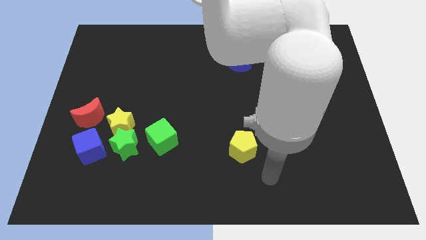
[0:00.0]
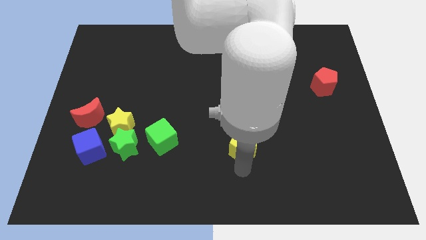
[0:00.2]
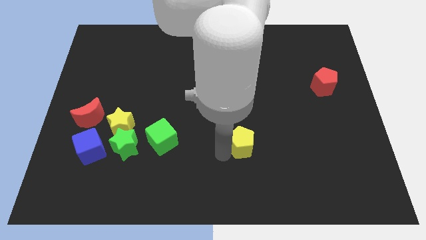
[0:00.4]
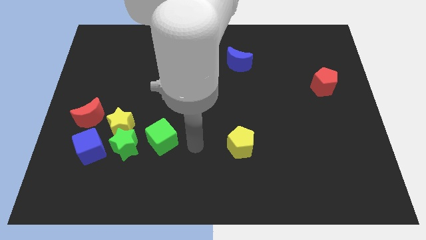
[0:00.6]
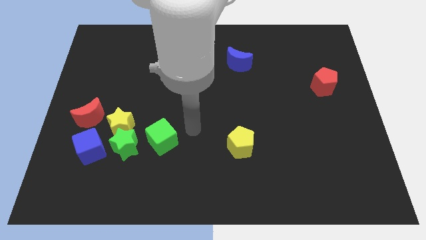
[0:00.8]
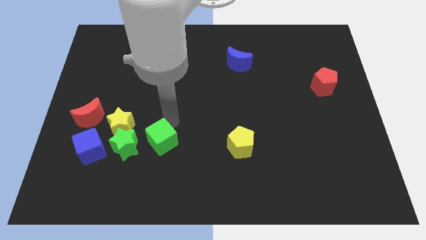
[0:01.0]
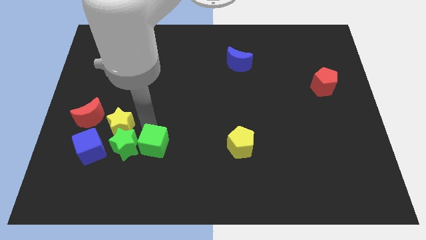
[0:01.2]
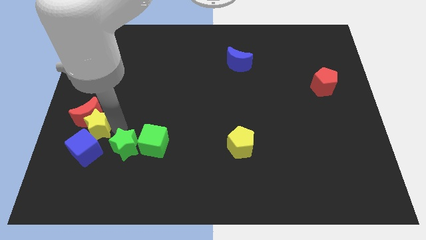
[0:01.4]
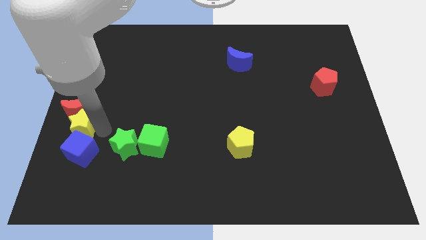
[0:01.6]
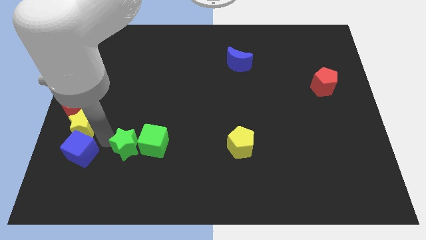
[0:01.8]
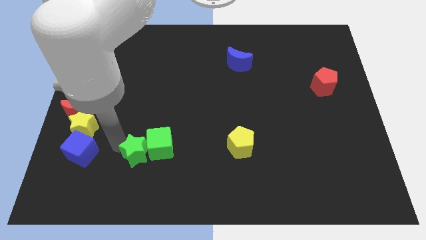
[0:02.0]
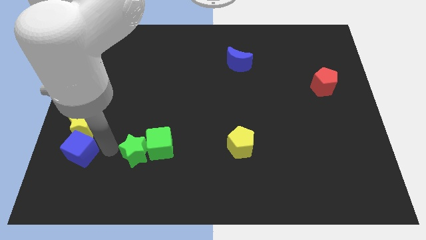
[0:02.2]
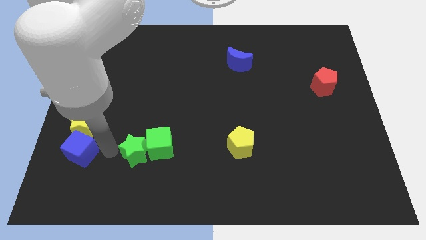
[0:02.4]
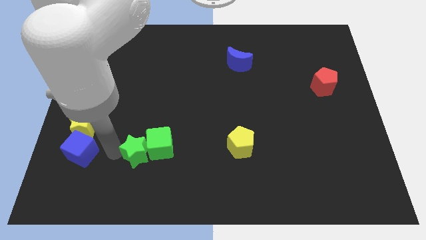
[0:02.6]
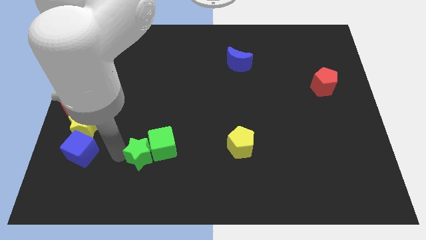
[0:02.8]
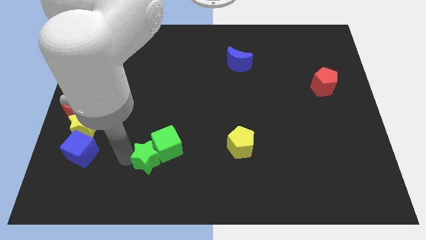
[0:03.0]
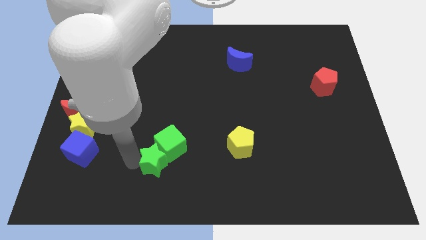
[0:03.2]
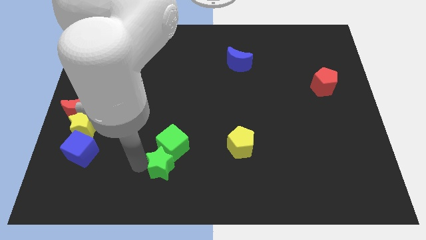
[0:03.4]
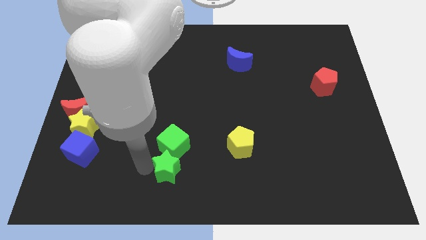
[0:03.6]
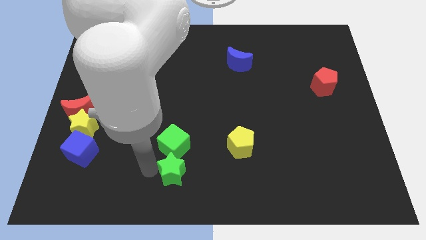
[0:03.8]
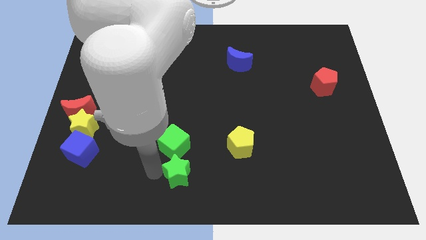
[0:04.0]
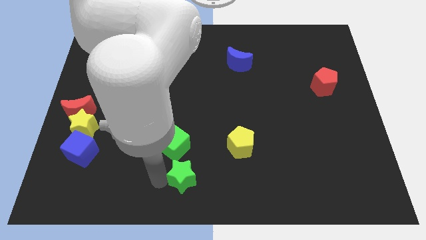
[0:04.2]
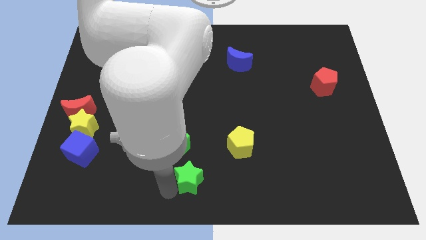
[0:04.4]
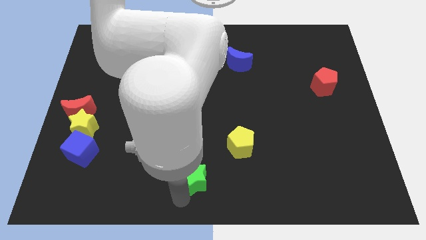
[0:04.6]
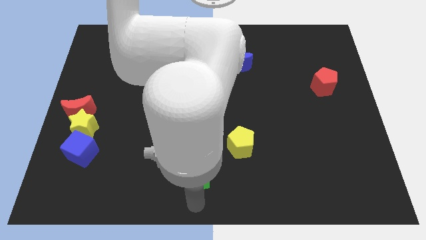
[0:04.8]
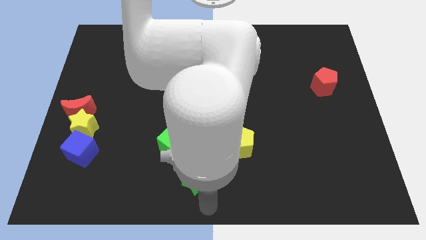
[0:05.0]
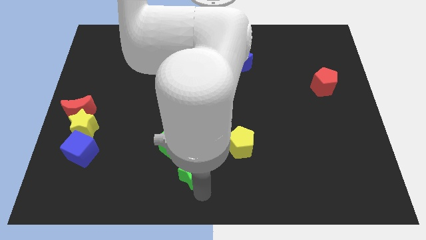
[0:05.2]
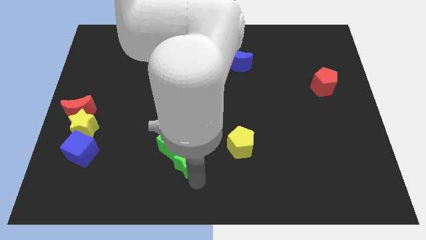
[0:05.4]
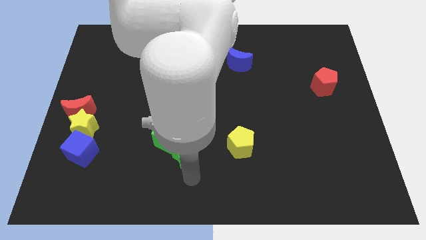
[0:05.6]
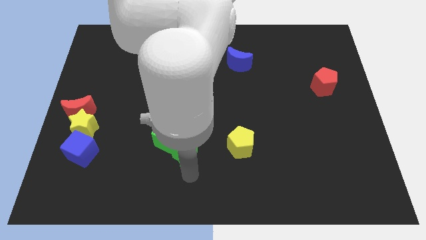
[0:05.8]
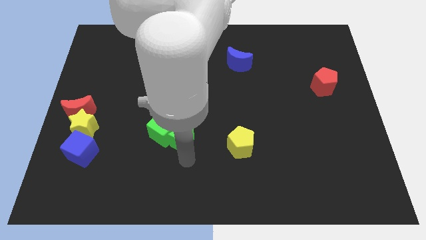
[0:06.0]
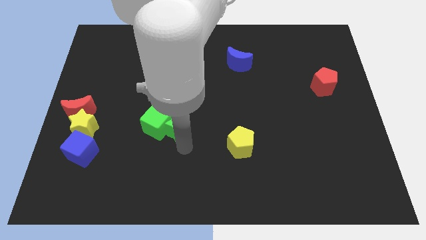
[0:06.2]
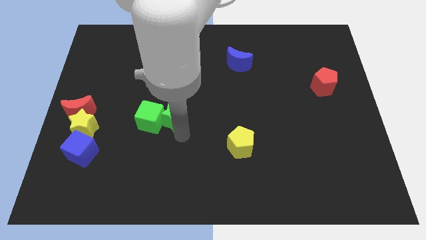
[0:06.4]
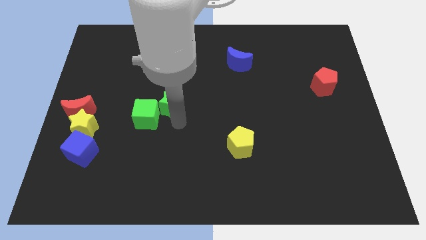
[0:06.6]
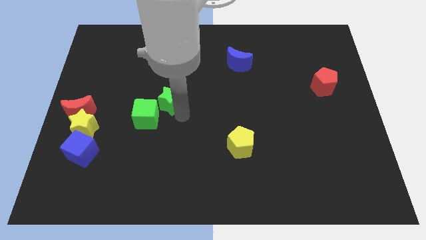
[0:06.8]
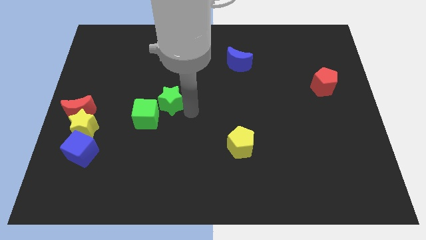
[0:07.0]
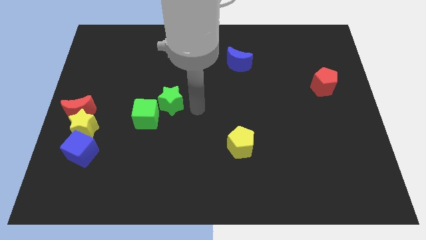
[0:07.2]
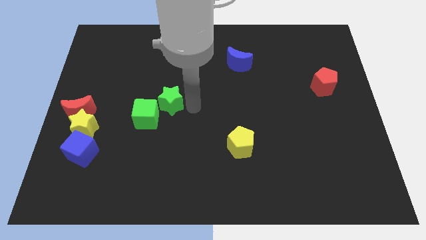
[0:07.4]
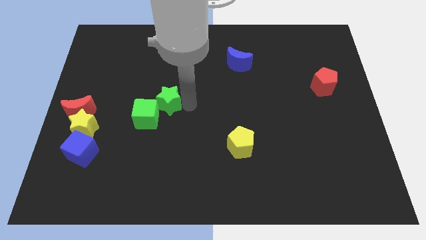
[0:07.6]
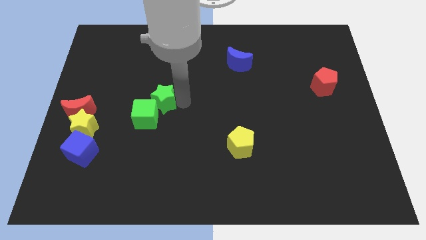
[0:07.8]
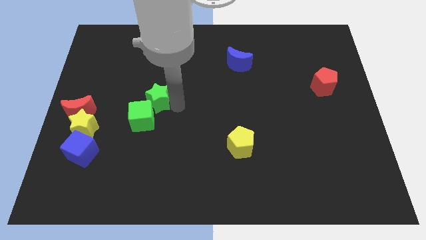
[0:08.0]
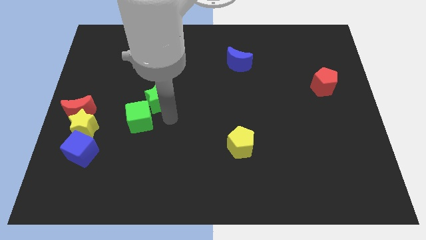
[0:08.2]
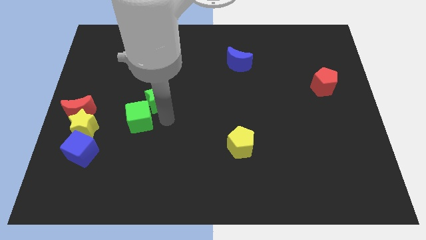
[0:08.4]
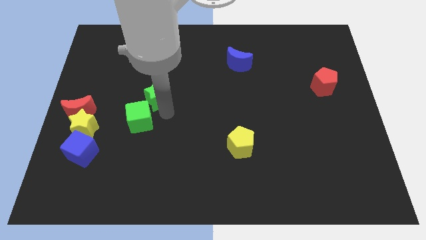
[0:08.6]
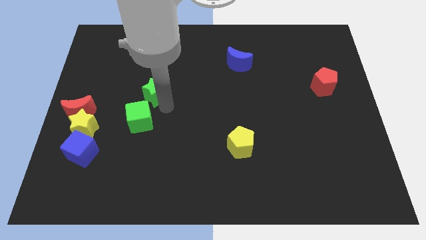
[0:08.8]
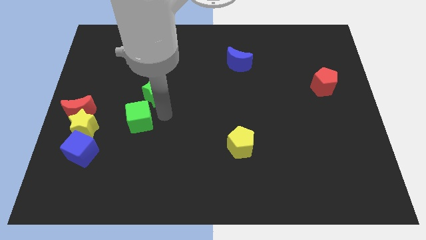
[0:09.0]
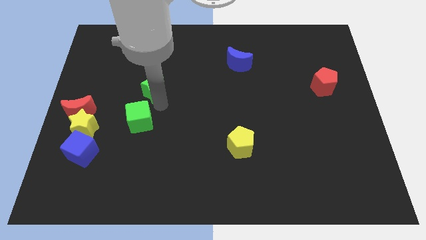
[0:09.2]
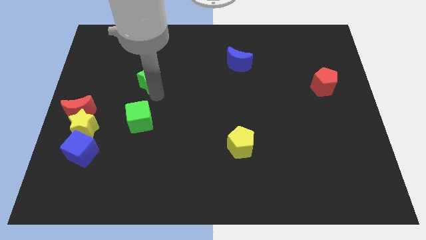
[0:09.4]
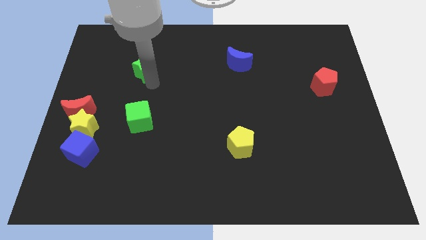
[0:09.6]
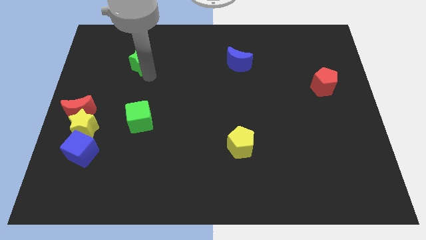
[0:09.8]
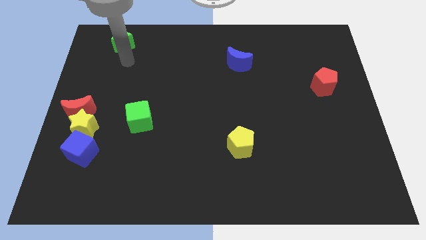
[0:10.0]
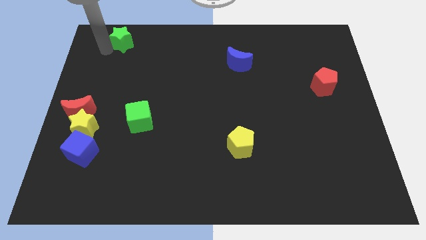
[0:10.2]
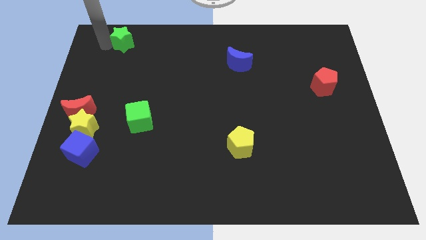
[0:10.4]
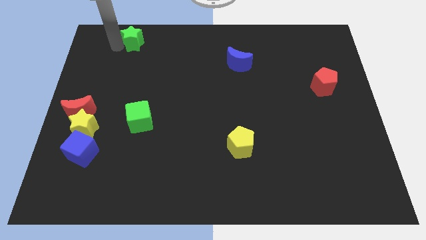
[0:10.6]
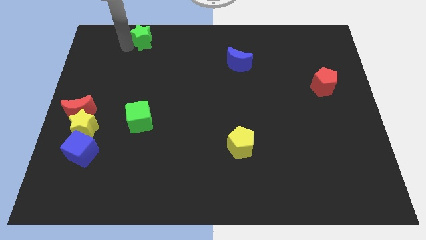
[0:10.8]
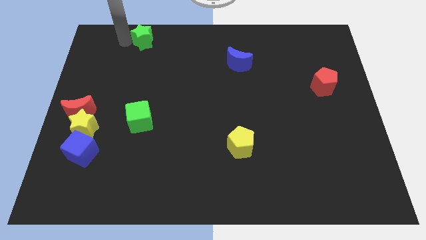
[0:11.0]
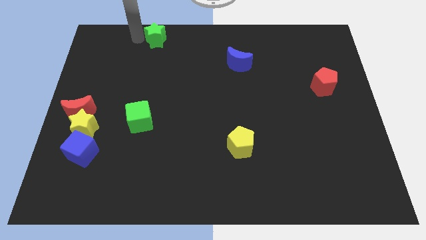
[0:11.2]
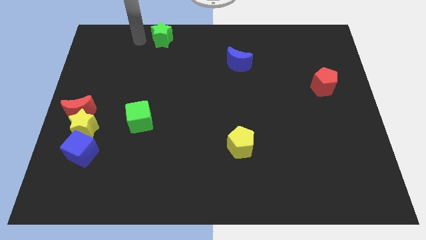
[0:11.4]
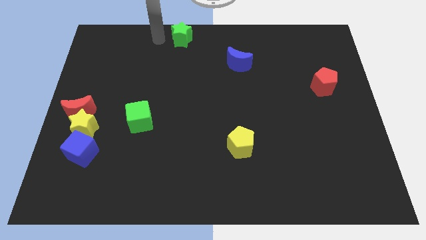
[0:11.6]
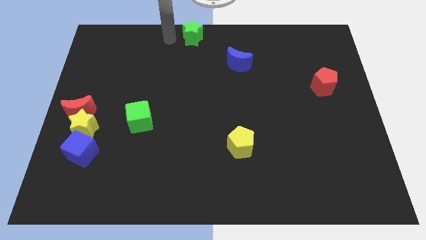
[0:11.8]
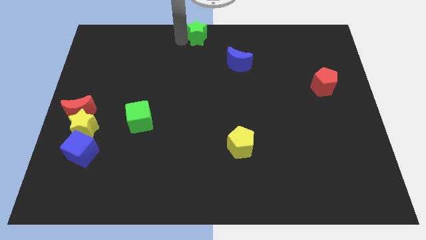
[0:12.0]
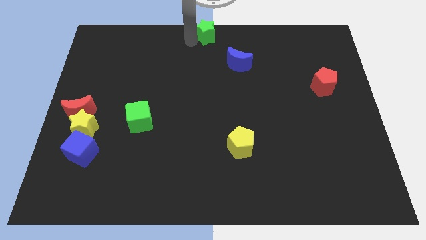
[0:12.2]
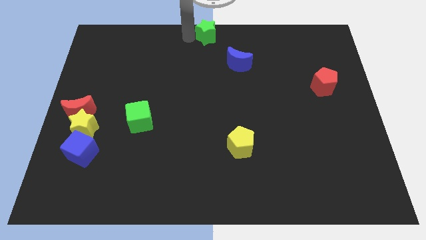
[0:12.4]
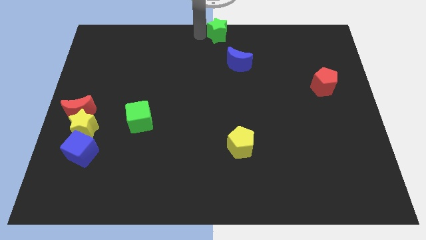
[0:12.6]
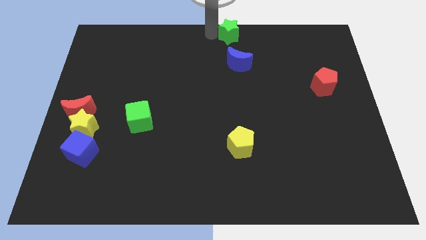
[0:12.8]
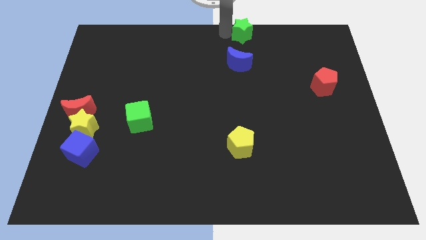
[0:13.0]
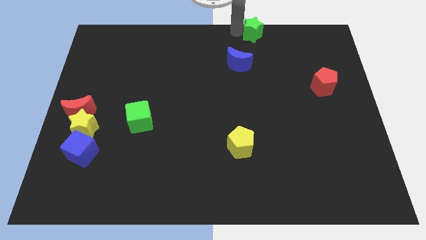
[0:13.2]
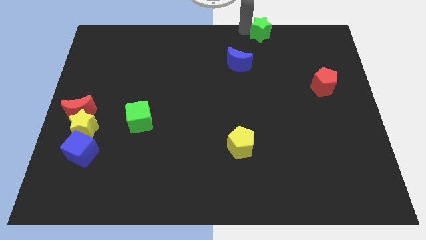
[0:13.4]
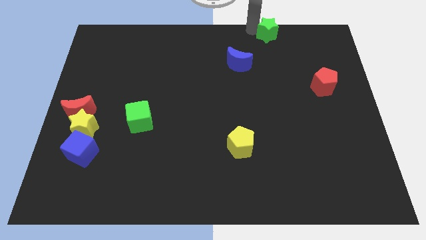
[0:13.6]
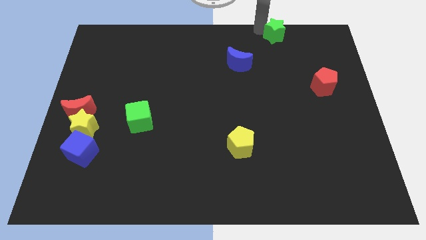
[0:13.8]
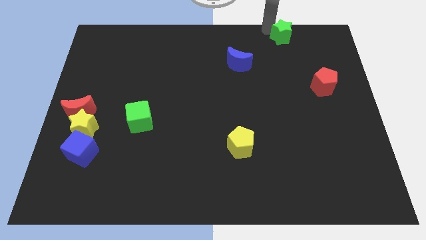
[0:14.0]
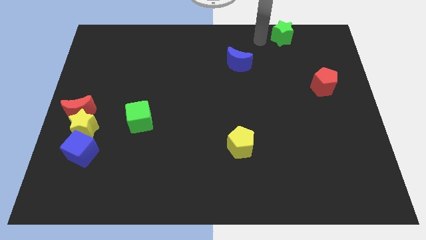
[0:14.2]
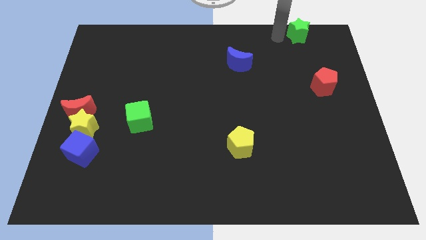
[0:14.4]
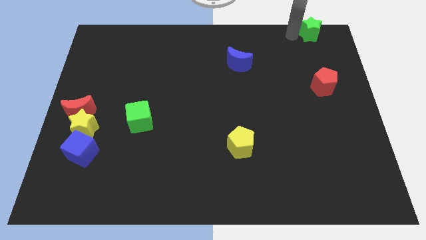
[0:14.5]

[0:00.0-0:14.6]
move the green star to the top right corner
